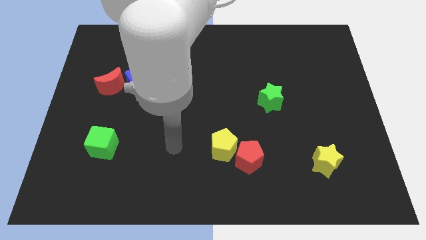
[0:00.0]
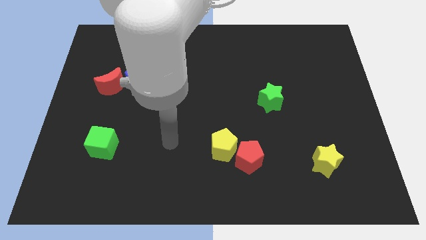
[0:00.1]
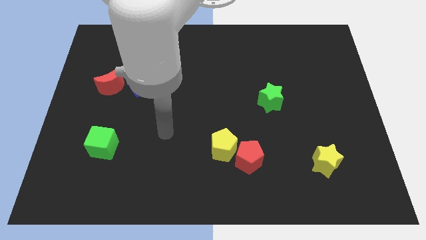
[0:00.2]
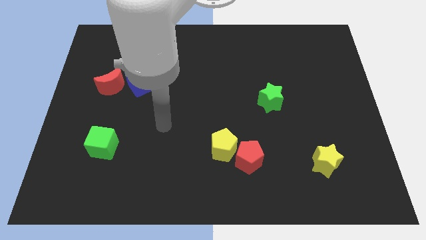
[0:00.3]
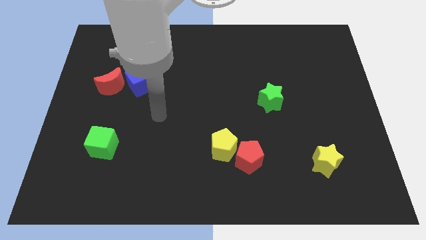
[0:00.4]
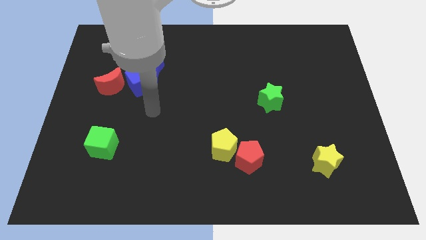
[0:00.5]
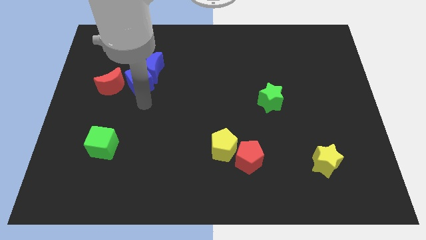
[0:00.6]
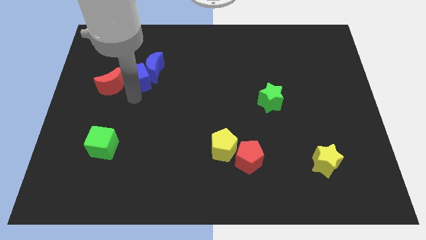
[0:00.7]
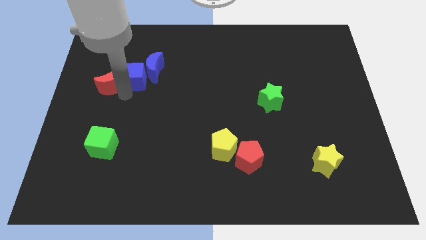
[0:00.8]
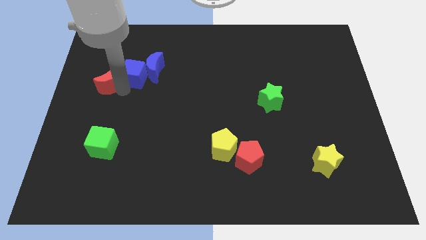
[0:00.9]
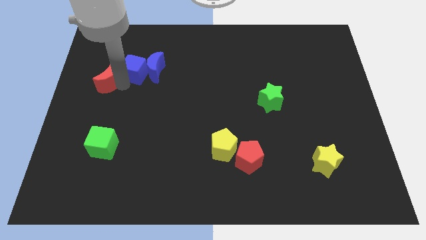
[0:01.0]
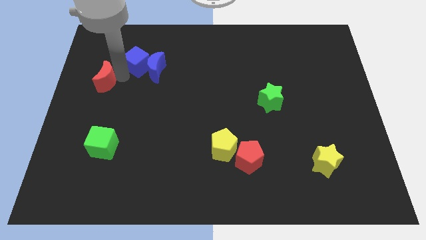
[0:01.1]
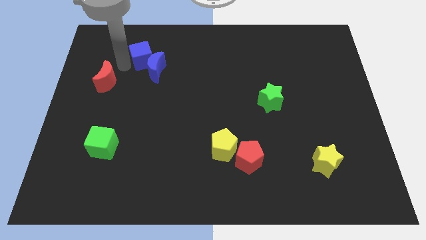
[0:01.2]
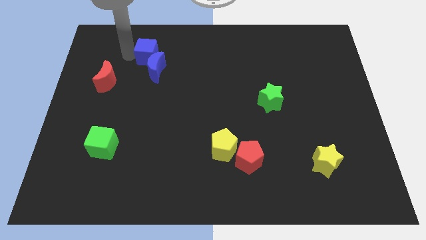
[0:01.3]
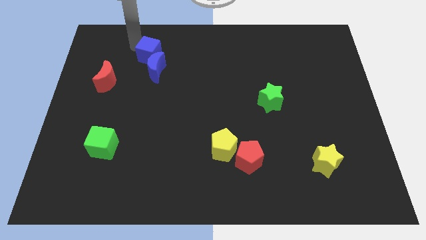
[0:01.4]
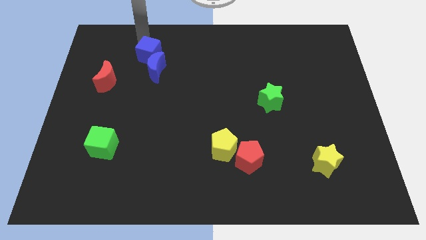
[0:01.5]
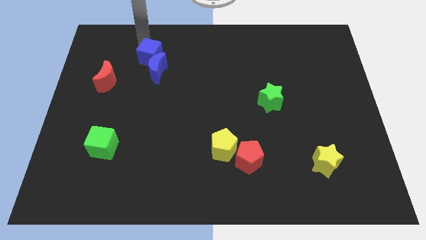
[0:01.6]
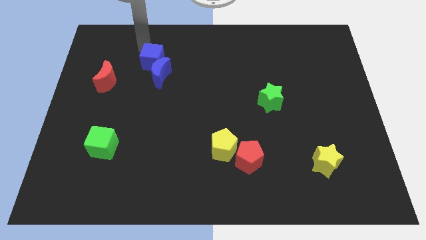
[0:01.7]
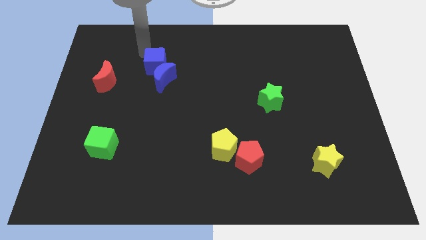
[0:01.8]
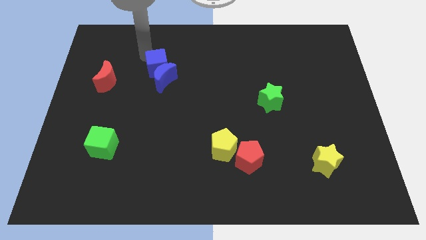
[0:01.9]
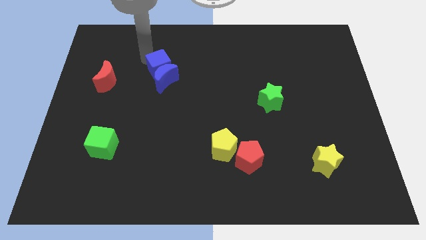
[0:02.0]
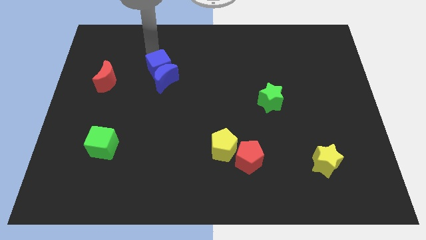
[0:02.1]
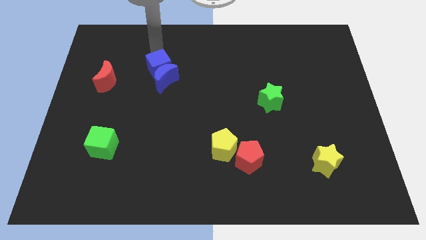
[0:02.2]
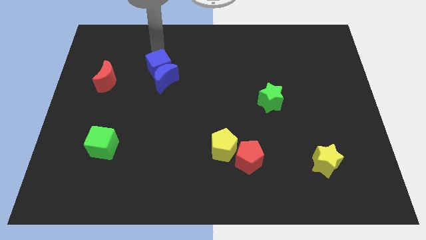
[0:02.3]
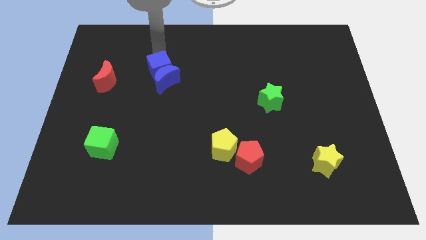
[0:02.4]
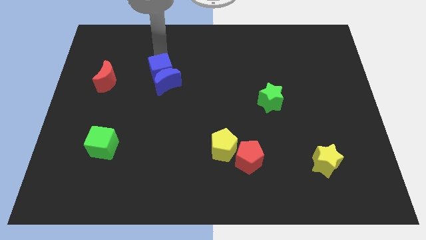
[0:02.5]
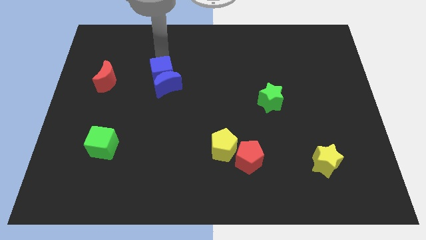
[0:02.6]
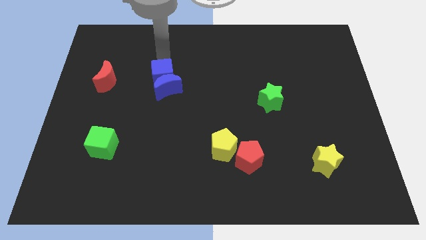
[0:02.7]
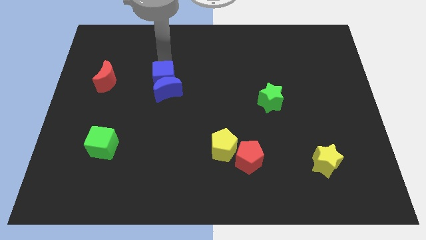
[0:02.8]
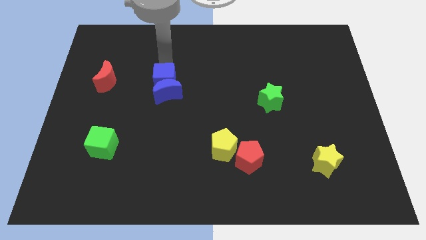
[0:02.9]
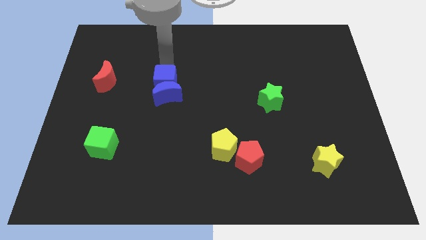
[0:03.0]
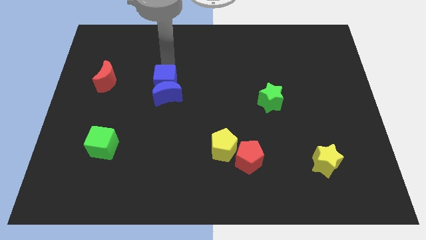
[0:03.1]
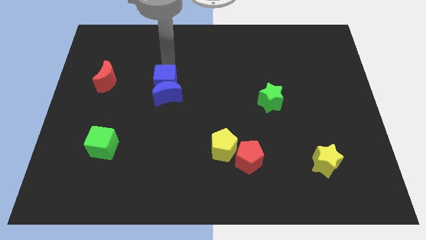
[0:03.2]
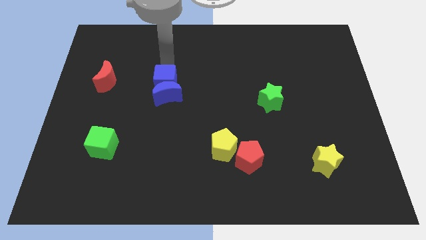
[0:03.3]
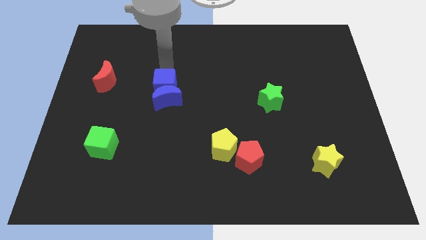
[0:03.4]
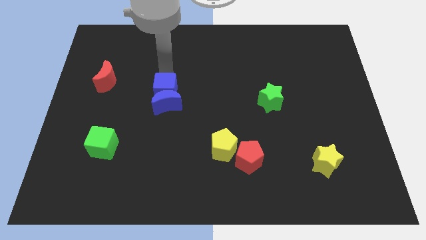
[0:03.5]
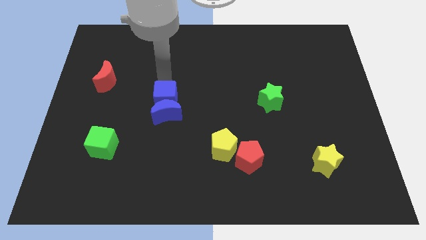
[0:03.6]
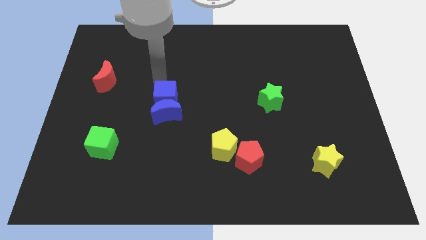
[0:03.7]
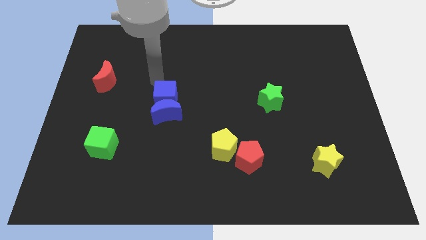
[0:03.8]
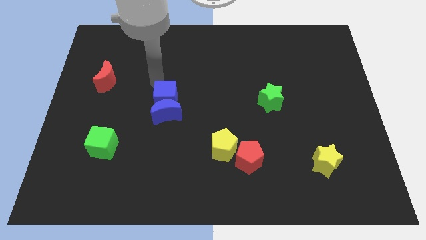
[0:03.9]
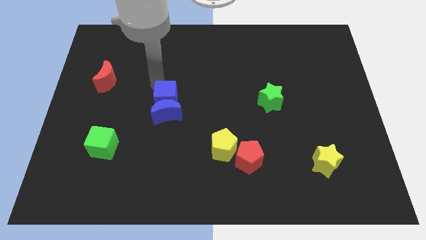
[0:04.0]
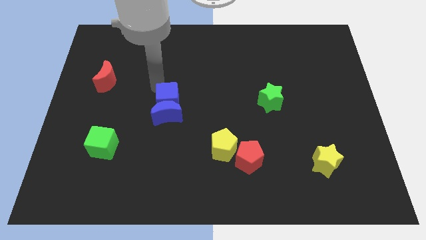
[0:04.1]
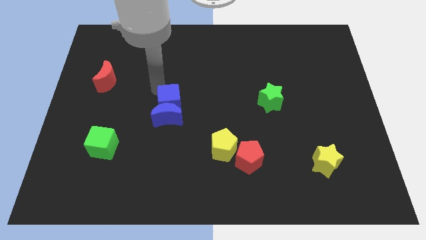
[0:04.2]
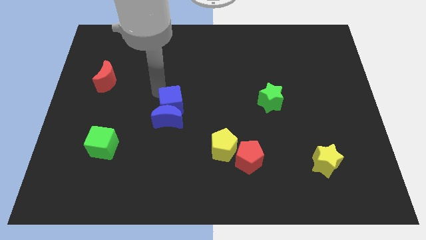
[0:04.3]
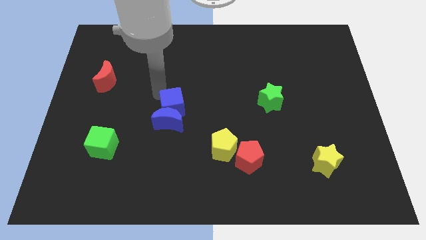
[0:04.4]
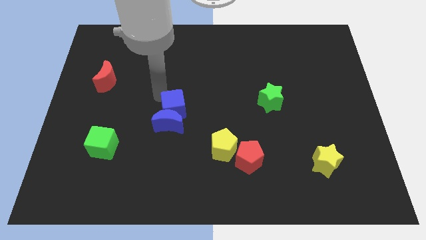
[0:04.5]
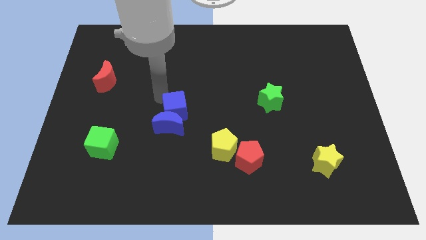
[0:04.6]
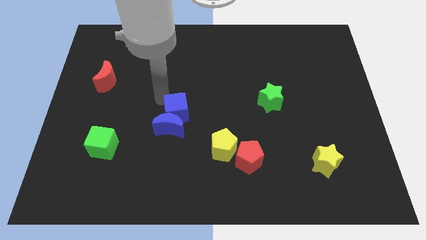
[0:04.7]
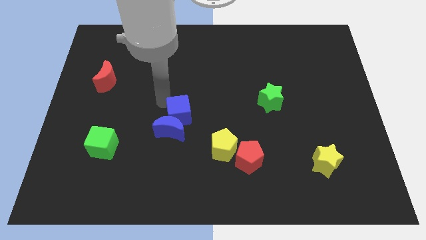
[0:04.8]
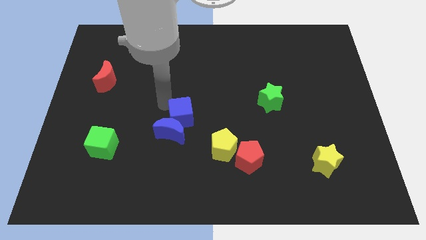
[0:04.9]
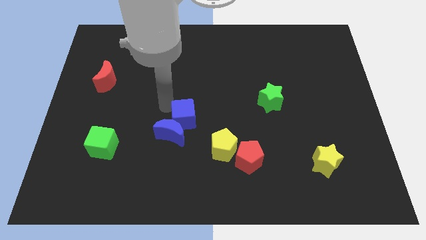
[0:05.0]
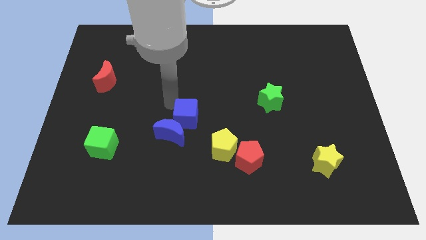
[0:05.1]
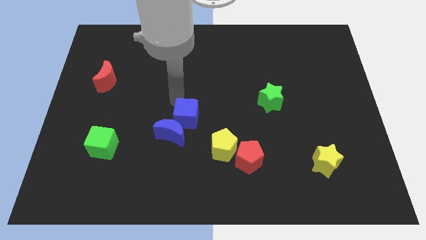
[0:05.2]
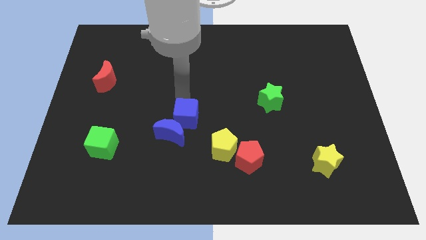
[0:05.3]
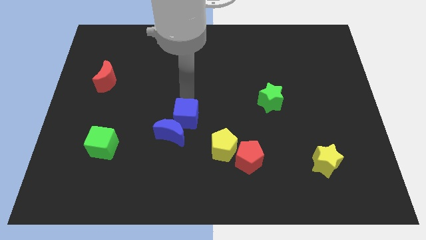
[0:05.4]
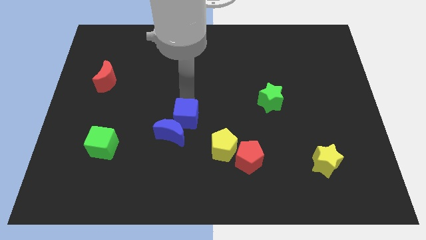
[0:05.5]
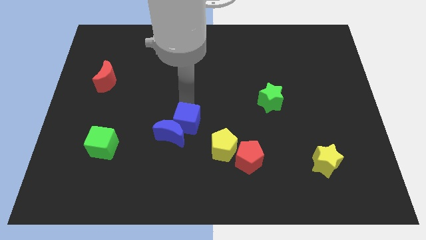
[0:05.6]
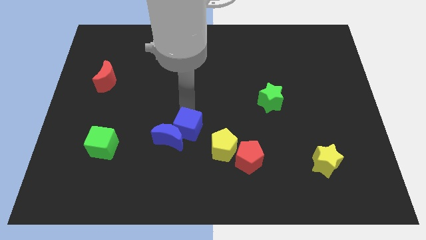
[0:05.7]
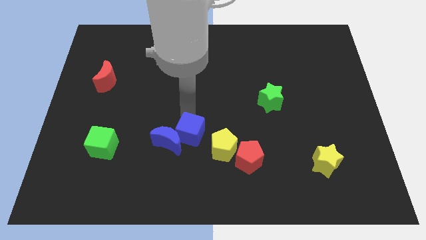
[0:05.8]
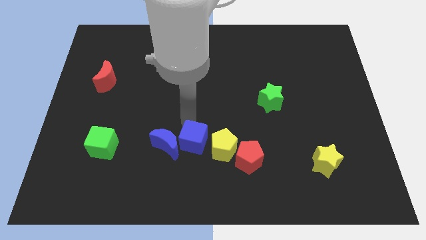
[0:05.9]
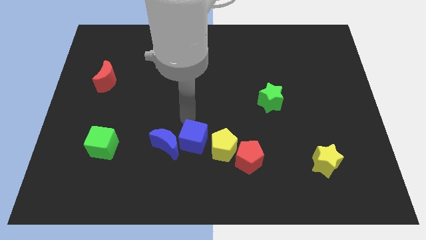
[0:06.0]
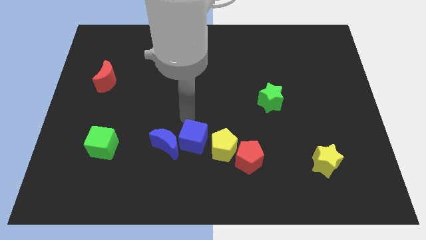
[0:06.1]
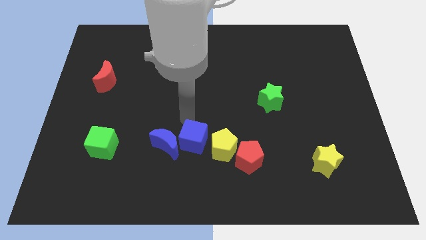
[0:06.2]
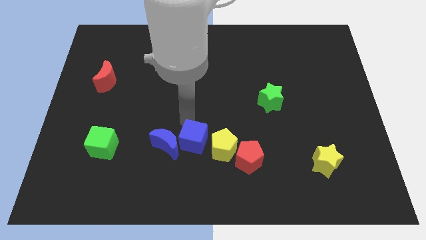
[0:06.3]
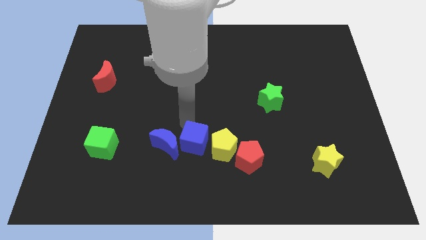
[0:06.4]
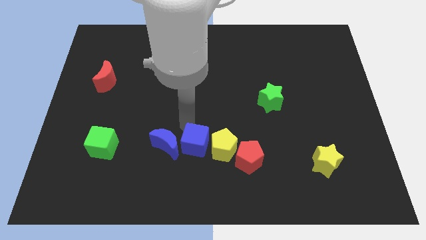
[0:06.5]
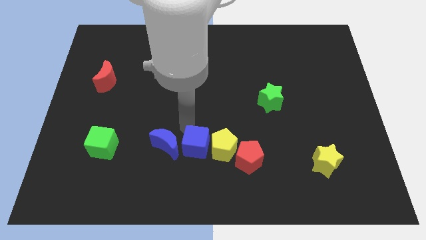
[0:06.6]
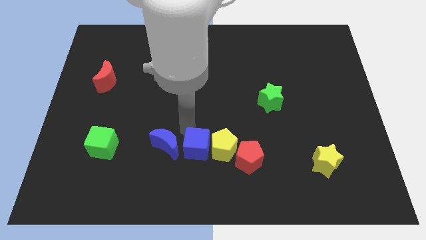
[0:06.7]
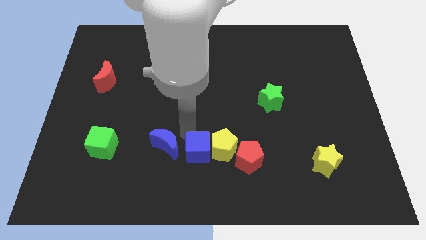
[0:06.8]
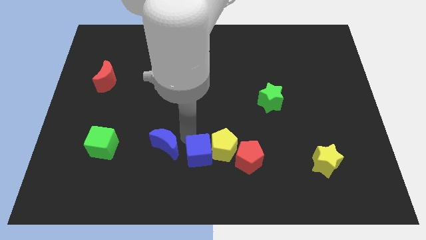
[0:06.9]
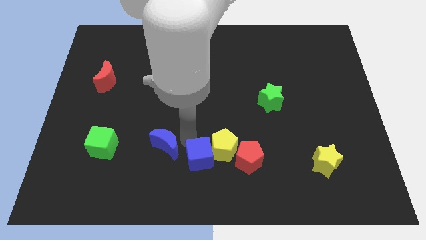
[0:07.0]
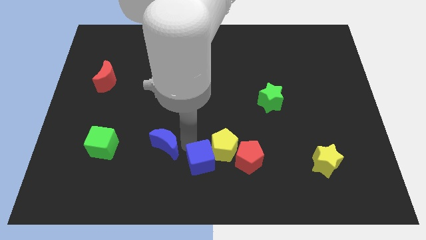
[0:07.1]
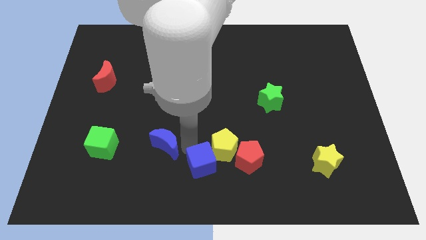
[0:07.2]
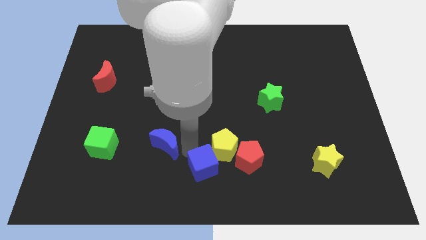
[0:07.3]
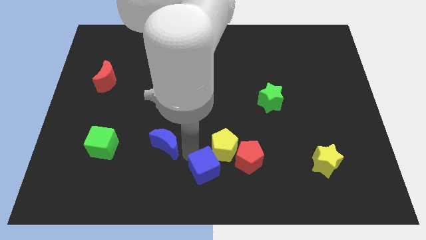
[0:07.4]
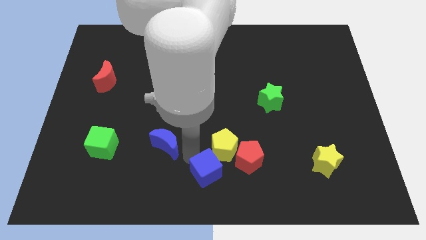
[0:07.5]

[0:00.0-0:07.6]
put the blue cube diagonally down and to the left of the red pentagon
